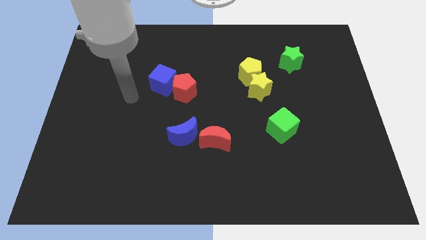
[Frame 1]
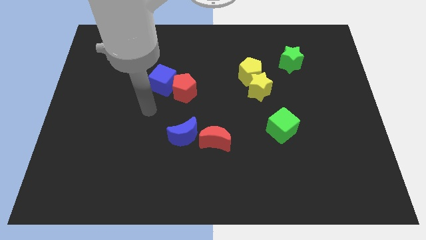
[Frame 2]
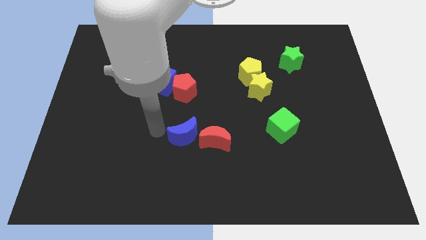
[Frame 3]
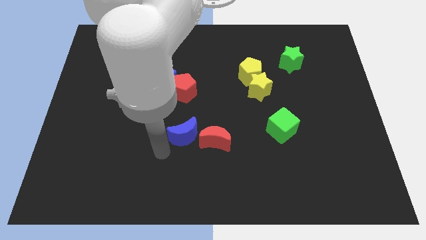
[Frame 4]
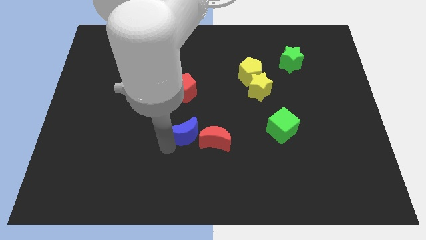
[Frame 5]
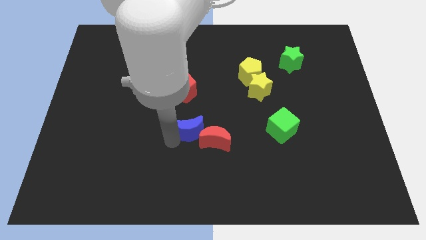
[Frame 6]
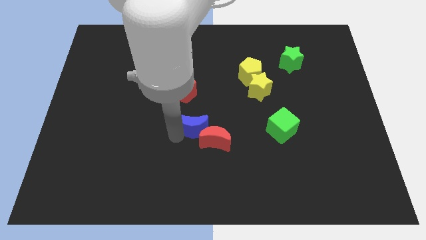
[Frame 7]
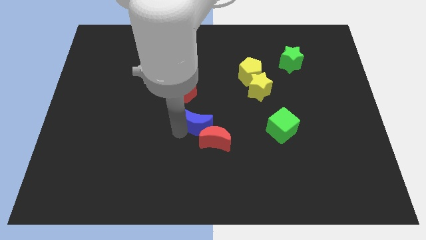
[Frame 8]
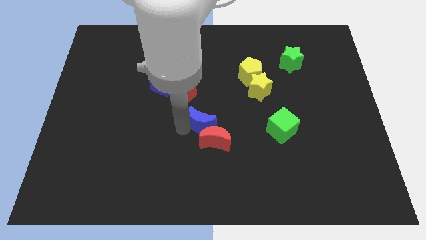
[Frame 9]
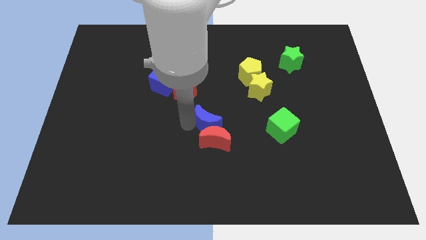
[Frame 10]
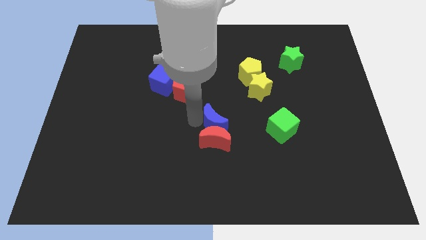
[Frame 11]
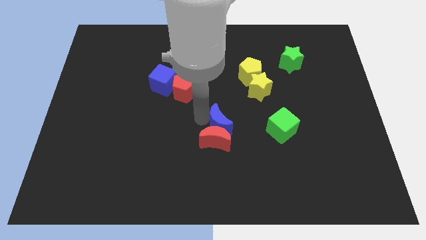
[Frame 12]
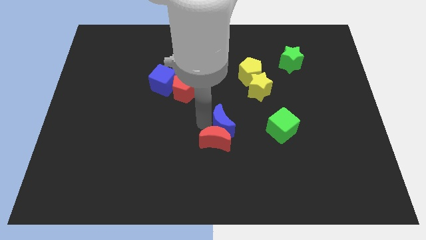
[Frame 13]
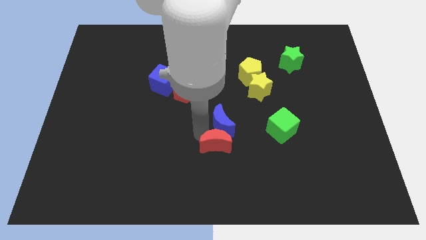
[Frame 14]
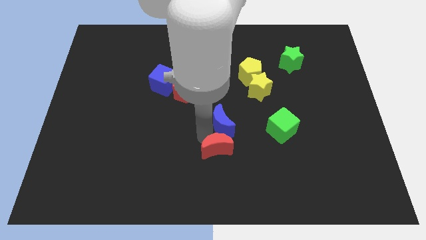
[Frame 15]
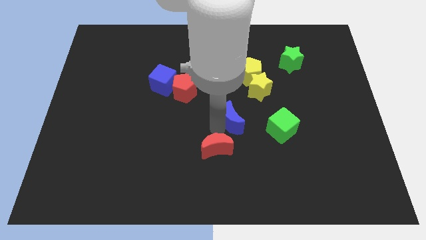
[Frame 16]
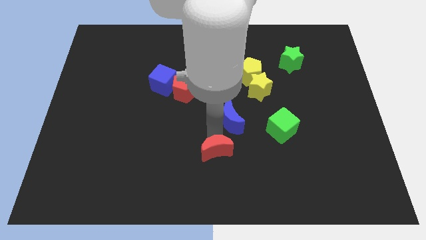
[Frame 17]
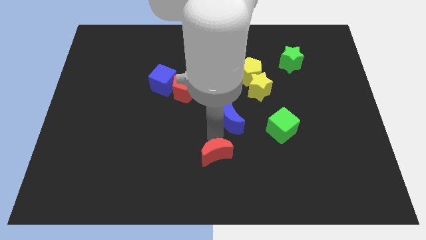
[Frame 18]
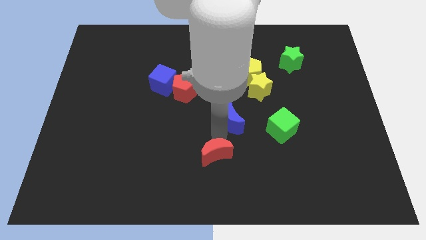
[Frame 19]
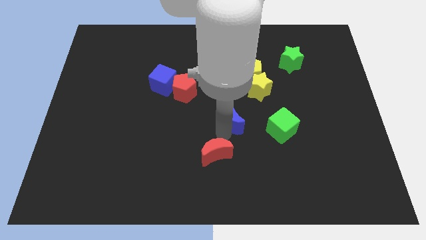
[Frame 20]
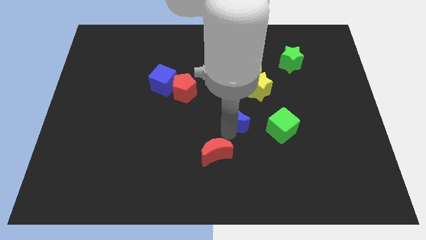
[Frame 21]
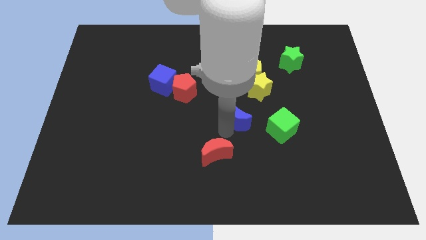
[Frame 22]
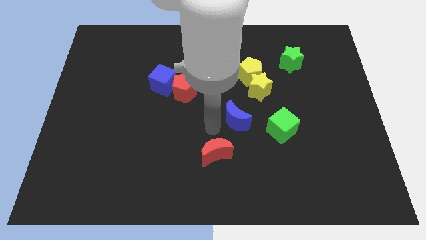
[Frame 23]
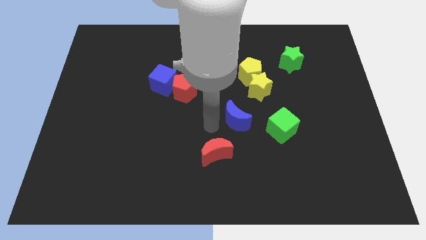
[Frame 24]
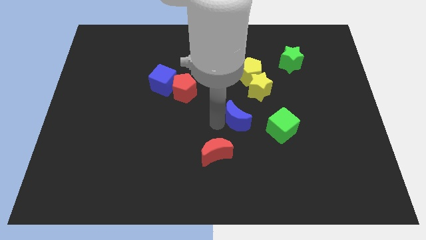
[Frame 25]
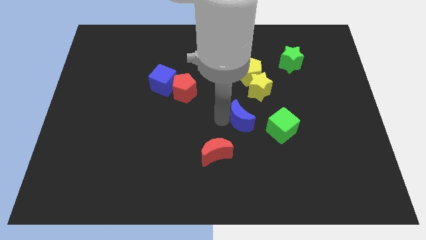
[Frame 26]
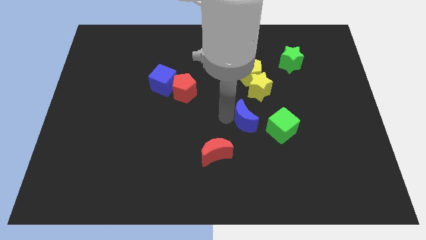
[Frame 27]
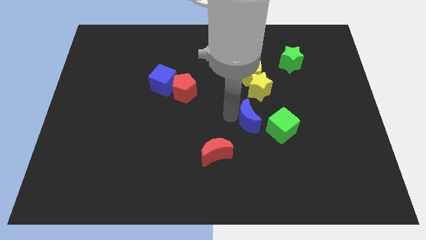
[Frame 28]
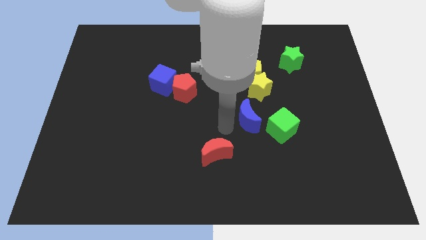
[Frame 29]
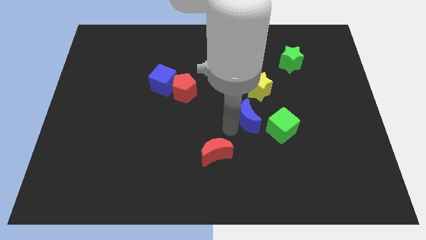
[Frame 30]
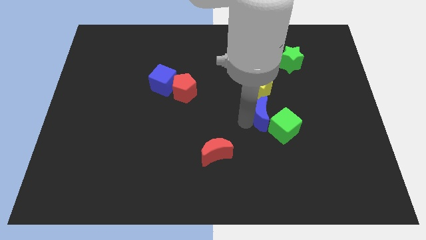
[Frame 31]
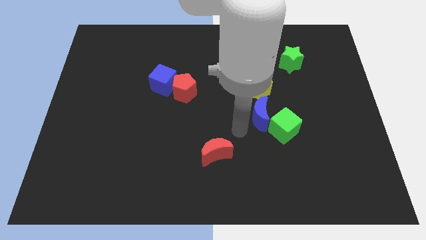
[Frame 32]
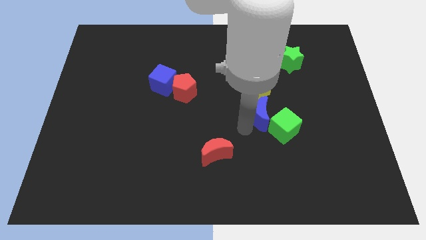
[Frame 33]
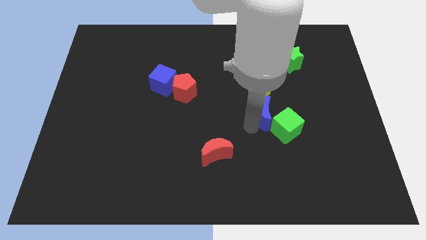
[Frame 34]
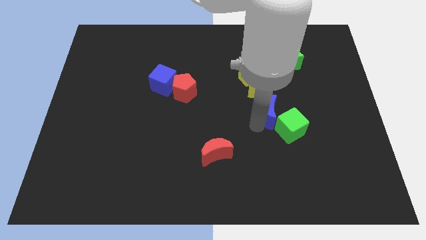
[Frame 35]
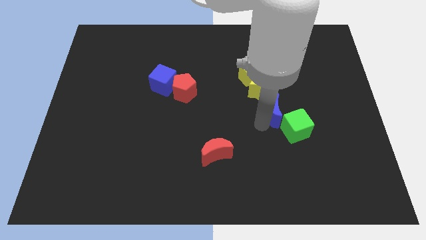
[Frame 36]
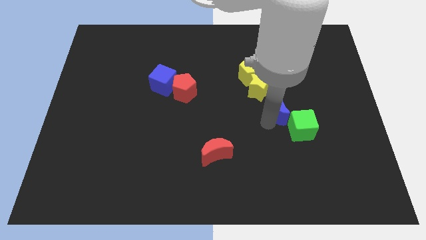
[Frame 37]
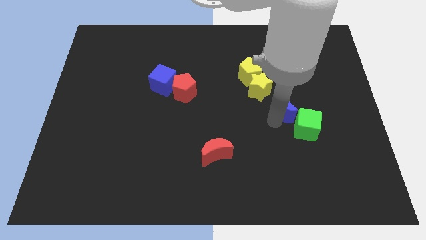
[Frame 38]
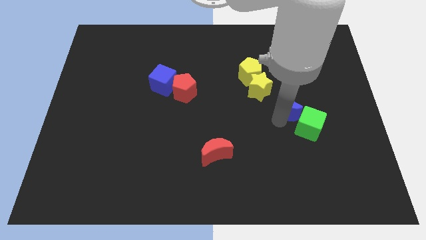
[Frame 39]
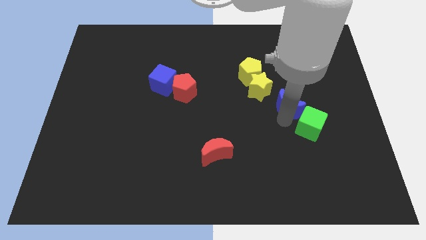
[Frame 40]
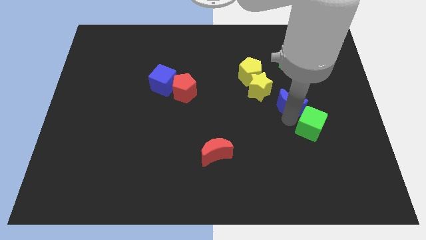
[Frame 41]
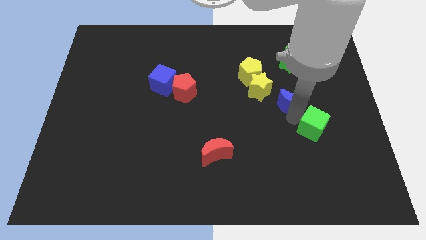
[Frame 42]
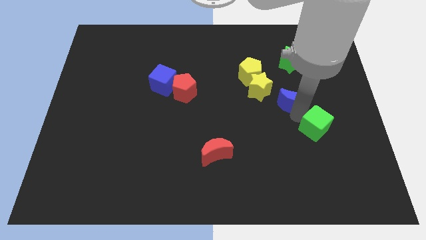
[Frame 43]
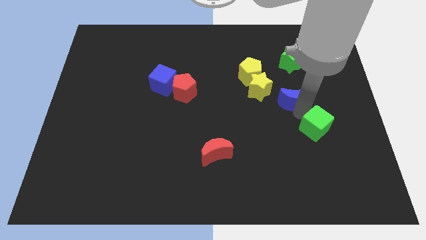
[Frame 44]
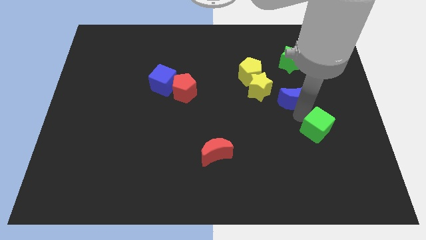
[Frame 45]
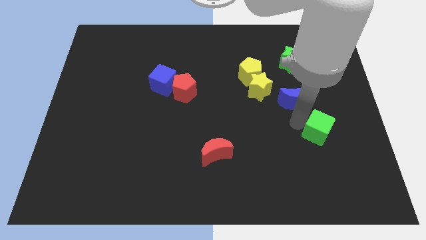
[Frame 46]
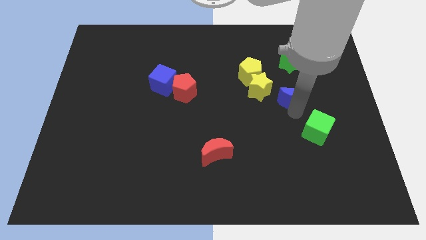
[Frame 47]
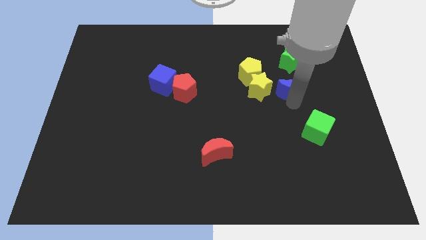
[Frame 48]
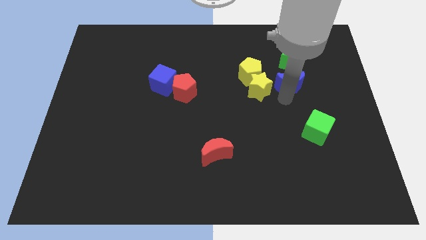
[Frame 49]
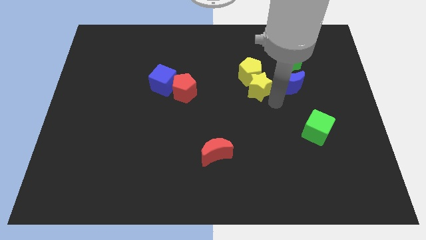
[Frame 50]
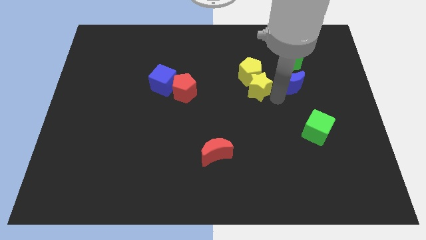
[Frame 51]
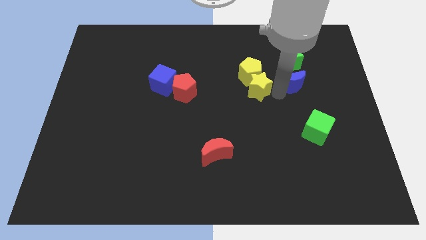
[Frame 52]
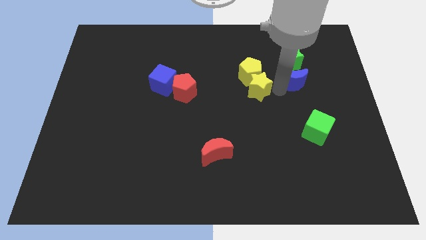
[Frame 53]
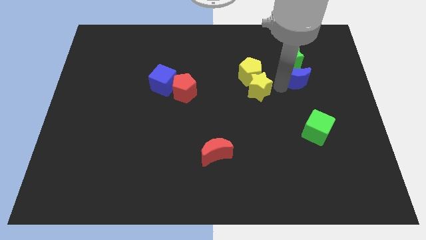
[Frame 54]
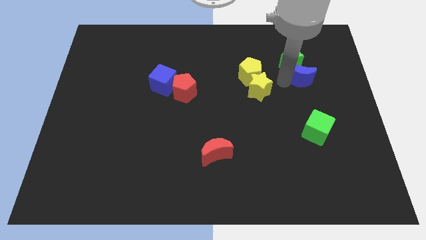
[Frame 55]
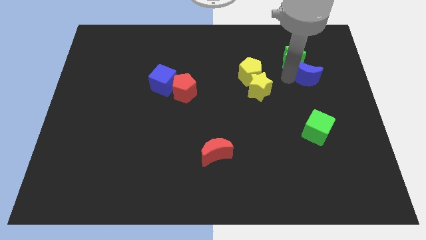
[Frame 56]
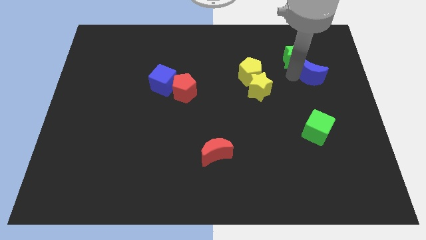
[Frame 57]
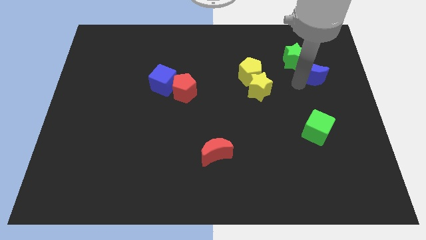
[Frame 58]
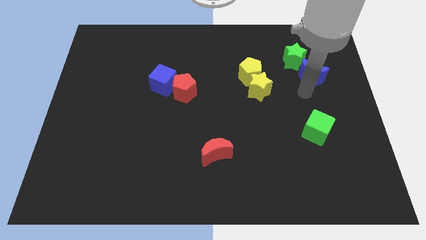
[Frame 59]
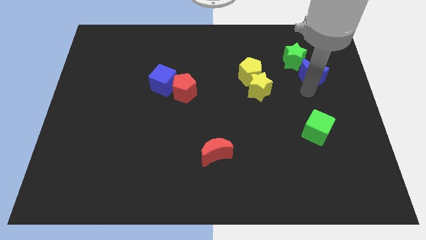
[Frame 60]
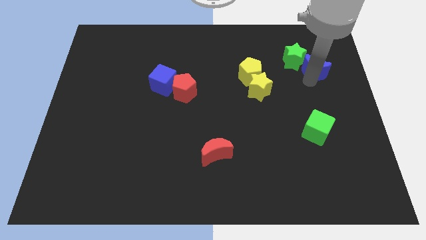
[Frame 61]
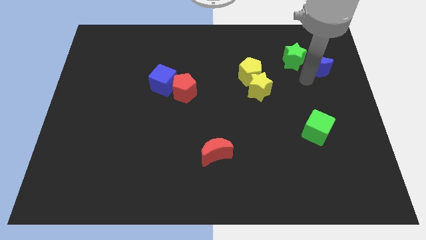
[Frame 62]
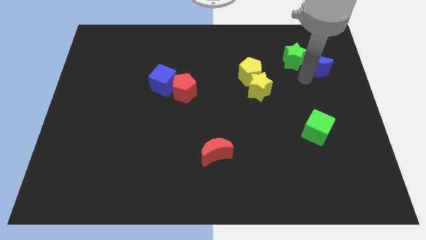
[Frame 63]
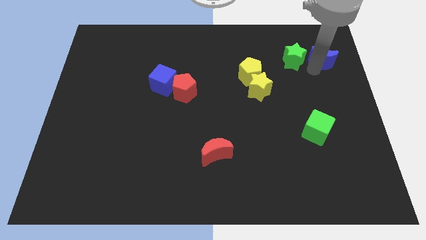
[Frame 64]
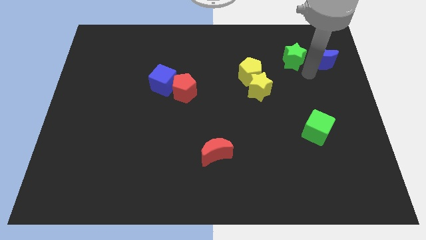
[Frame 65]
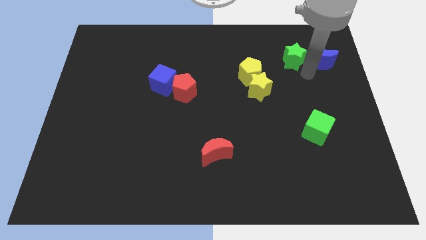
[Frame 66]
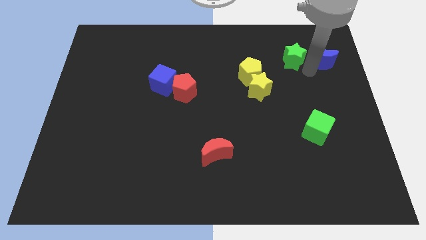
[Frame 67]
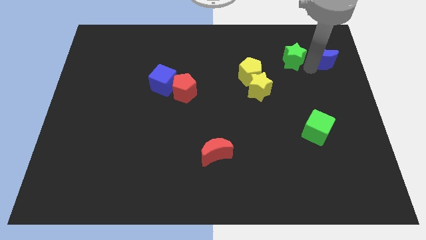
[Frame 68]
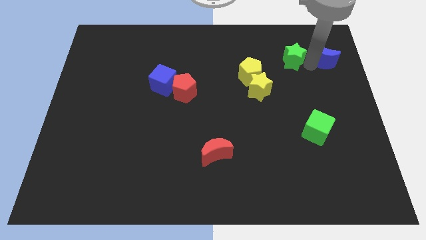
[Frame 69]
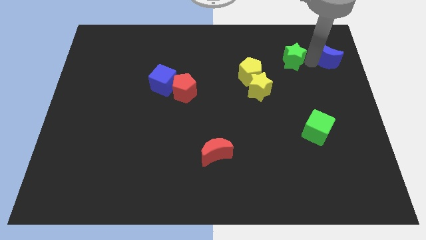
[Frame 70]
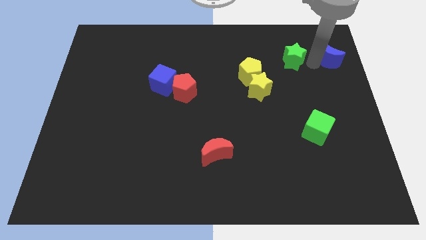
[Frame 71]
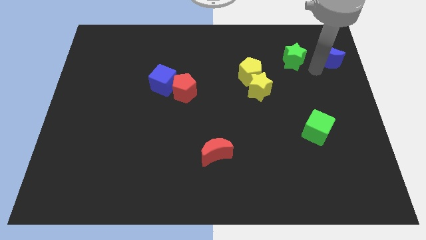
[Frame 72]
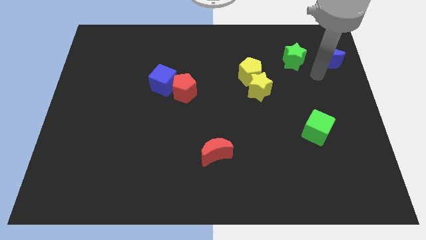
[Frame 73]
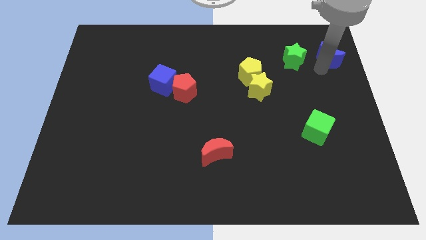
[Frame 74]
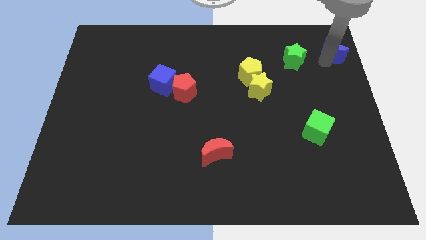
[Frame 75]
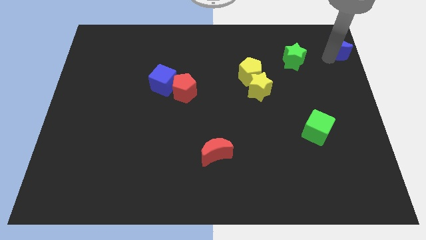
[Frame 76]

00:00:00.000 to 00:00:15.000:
put the blue moon to the top right corner
